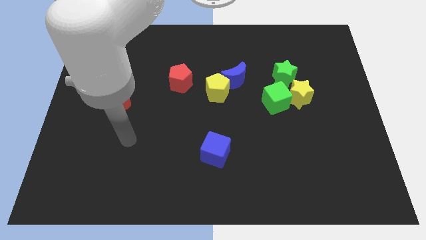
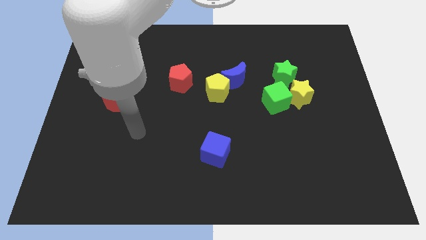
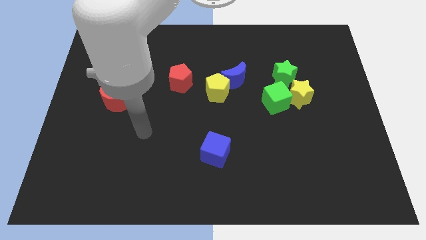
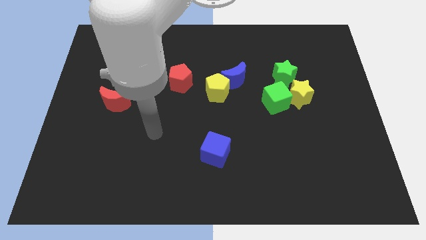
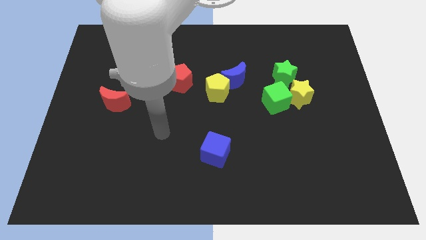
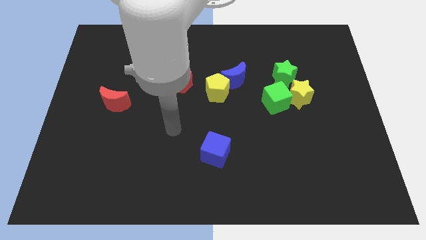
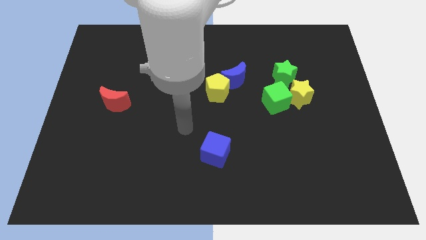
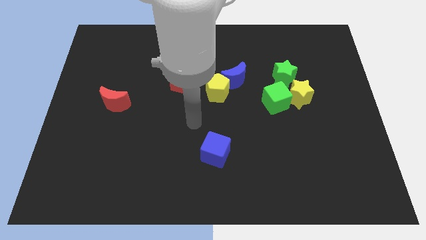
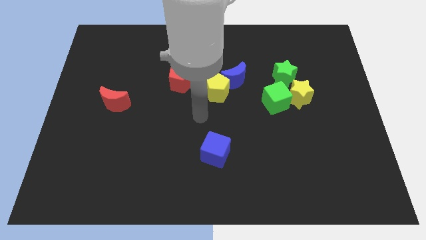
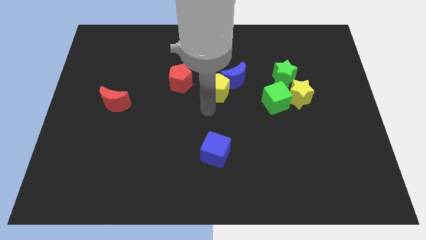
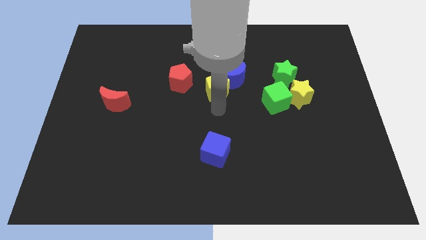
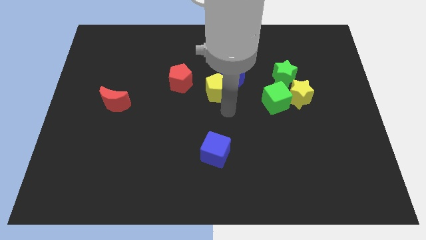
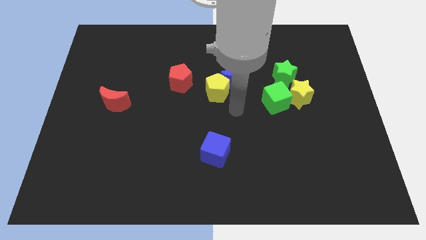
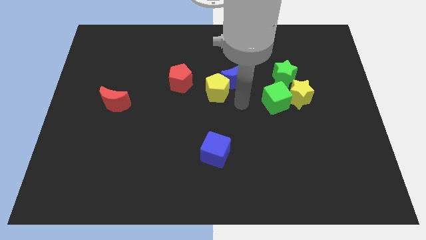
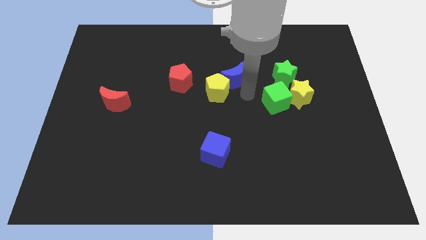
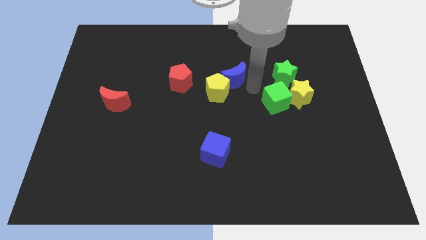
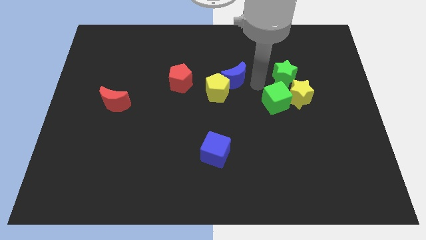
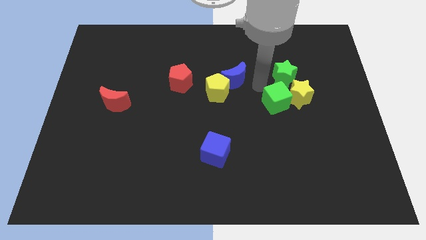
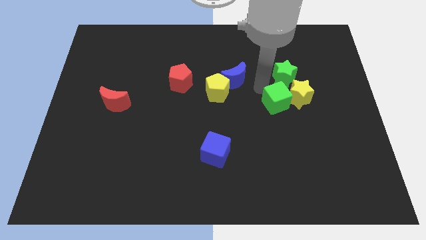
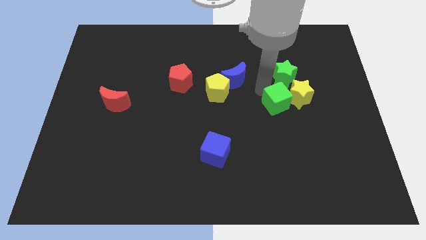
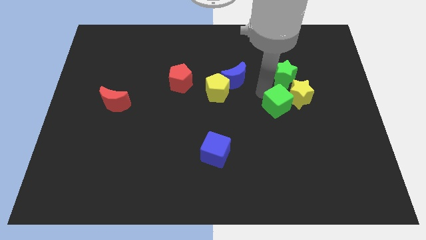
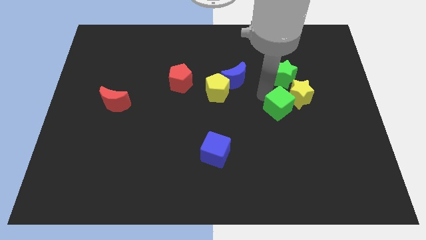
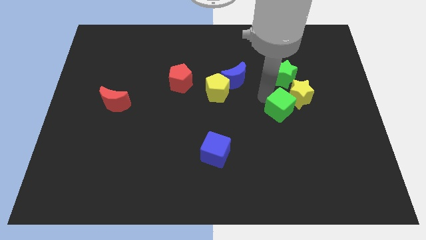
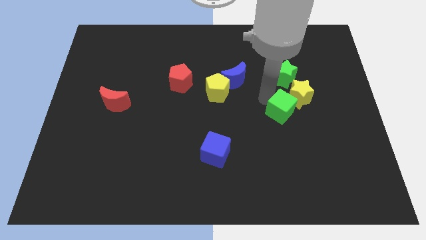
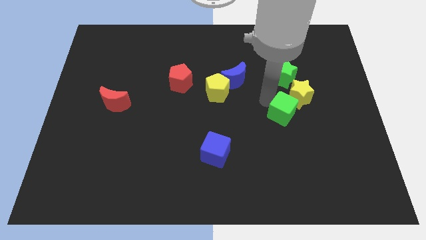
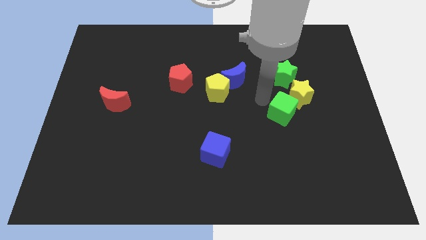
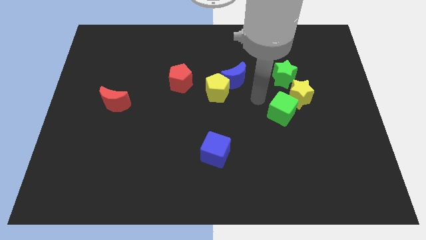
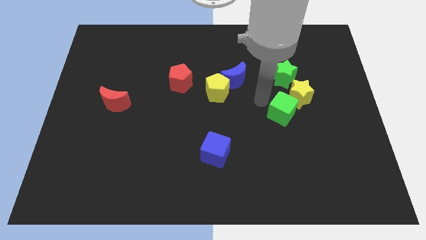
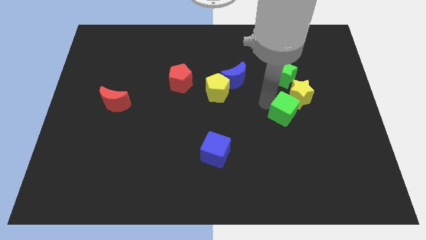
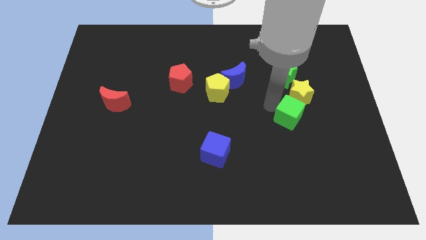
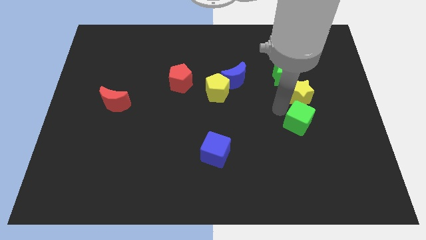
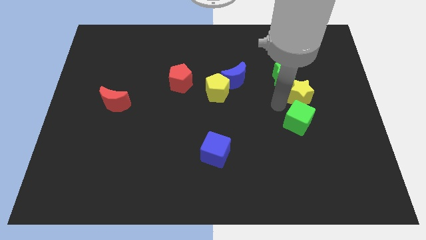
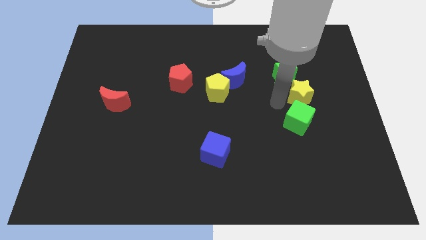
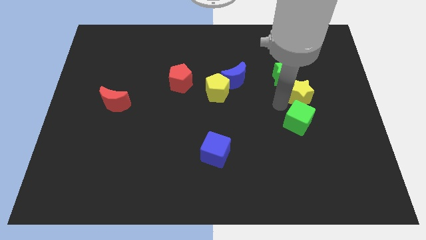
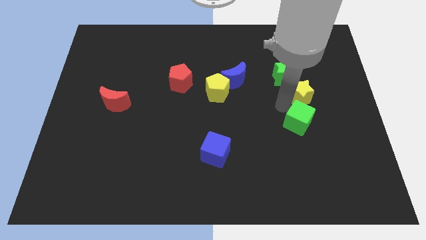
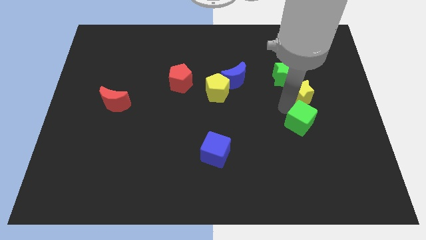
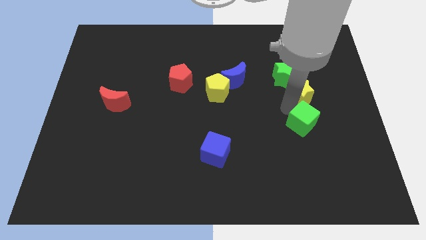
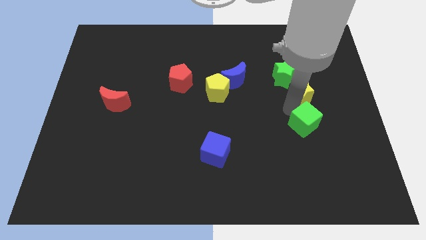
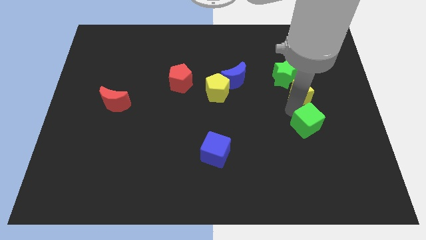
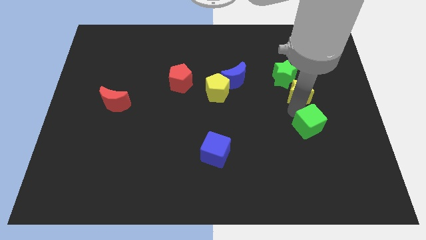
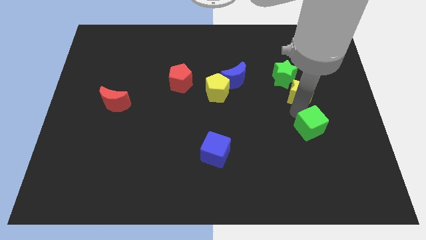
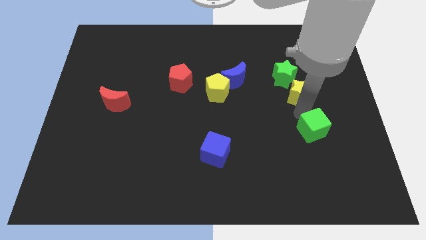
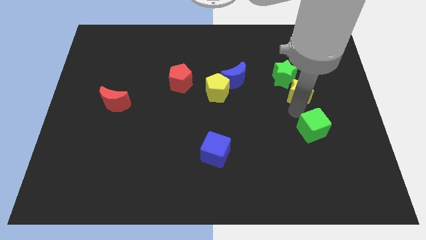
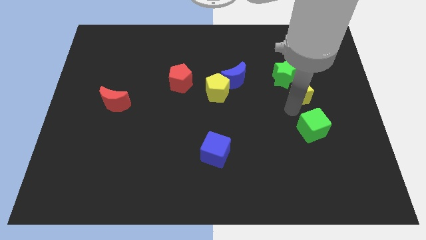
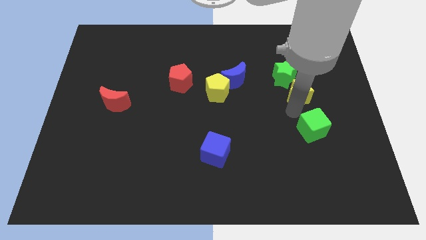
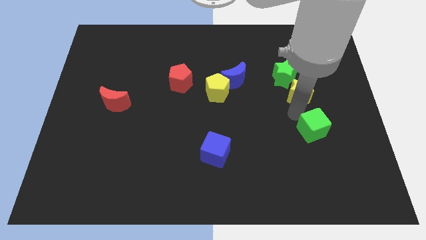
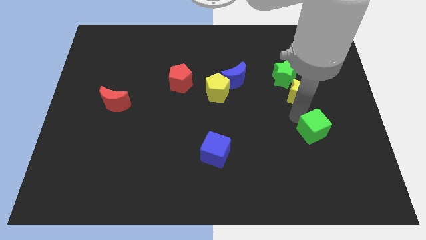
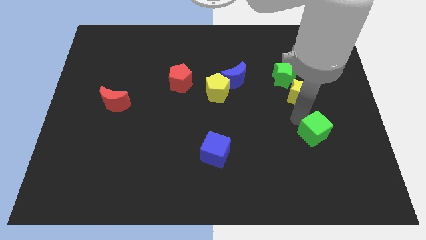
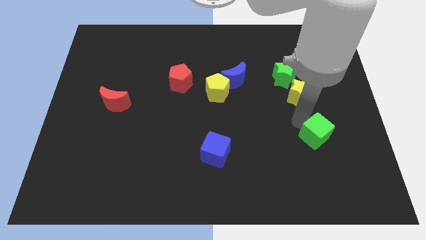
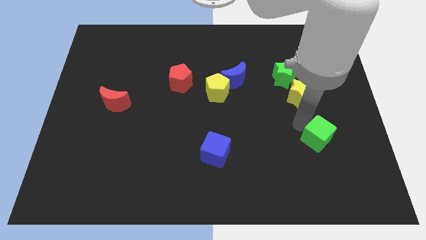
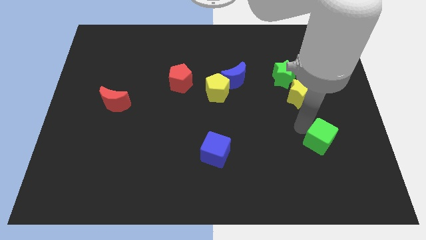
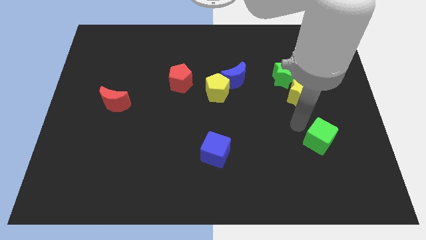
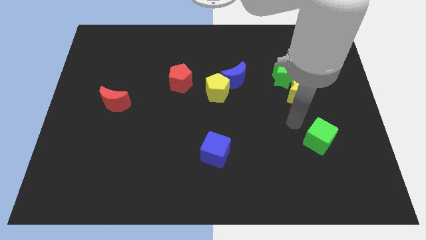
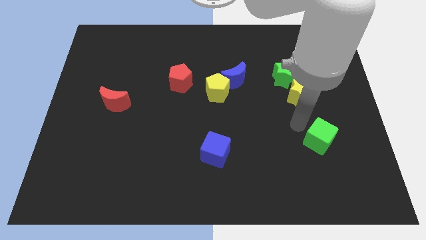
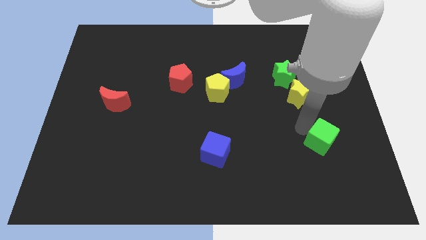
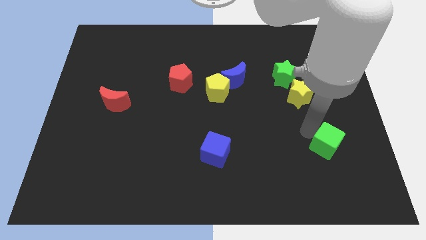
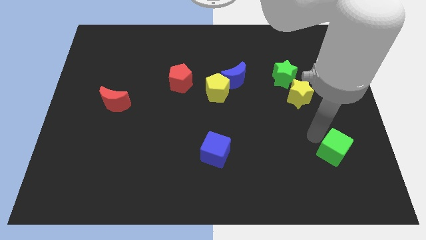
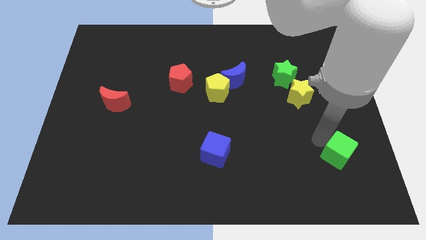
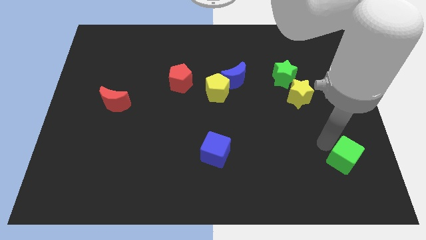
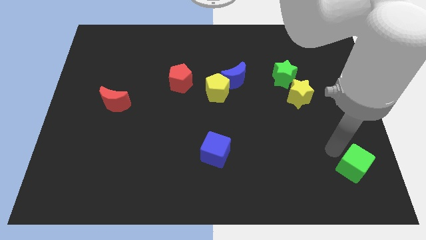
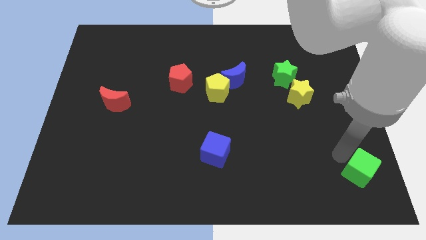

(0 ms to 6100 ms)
slide the green cube to the bottom right
